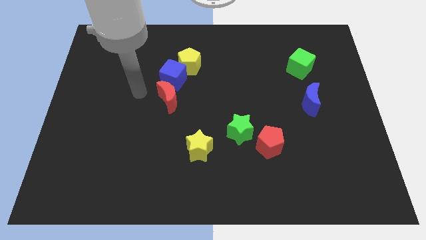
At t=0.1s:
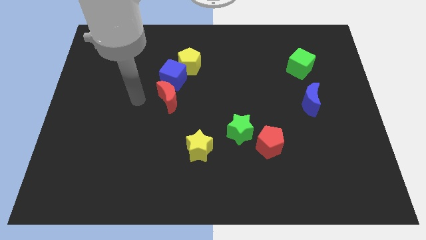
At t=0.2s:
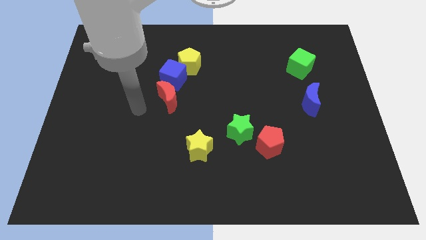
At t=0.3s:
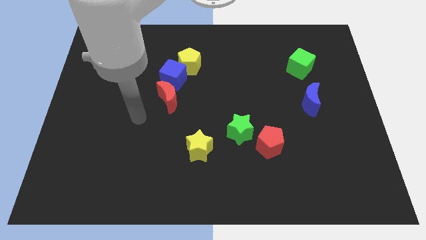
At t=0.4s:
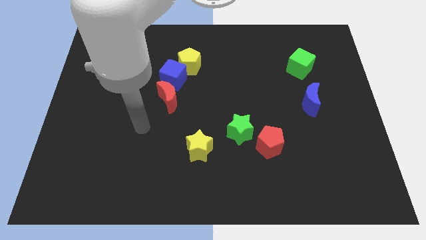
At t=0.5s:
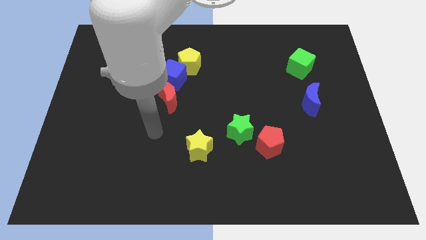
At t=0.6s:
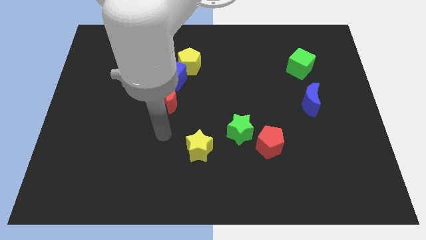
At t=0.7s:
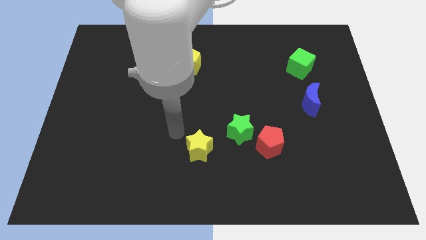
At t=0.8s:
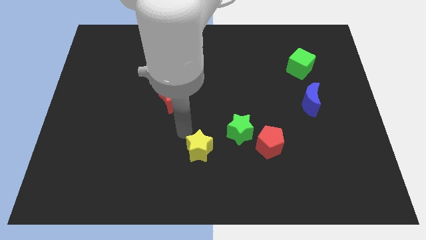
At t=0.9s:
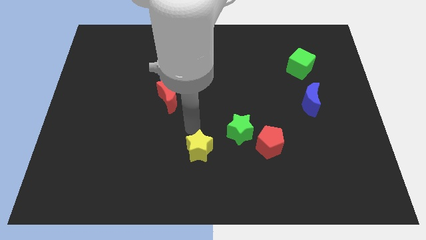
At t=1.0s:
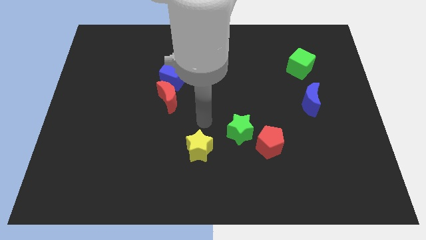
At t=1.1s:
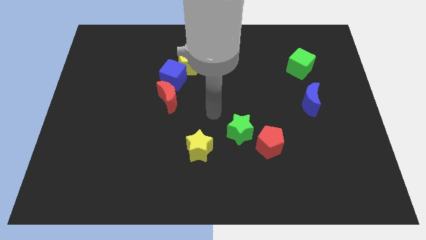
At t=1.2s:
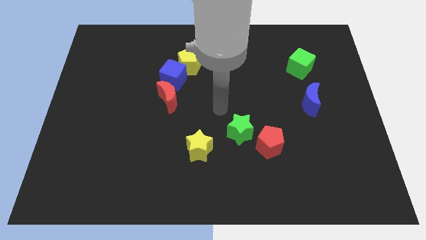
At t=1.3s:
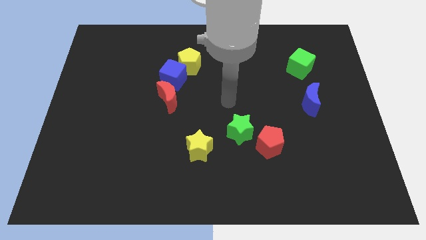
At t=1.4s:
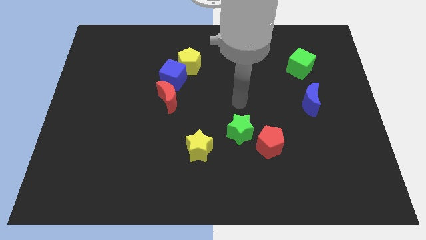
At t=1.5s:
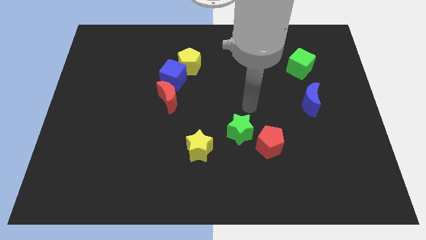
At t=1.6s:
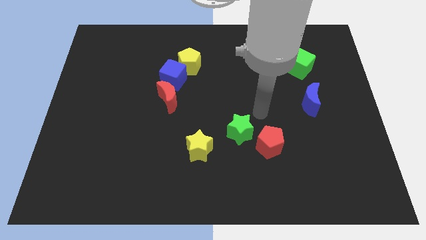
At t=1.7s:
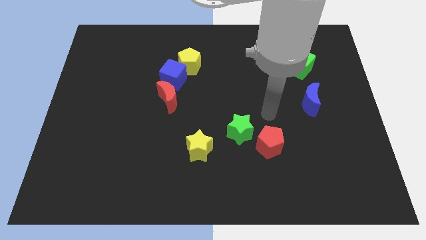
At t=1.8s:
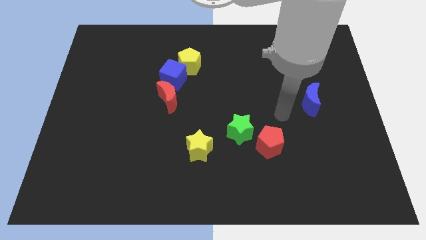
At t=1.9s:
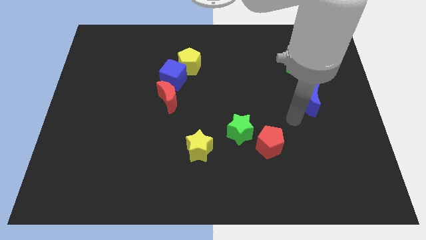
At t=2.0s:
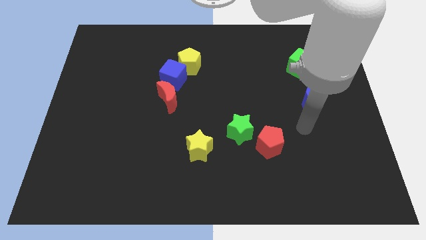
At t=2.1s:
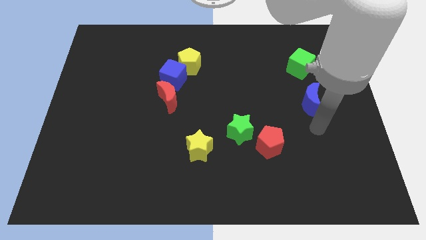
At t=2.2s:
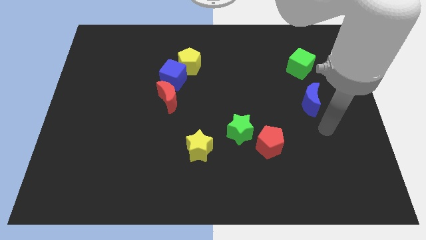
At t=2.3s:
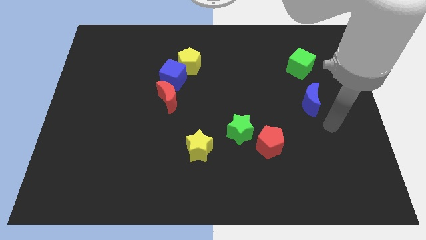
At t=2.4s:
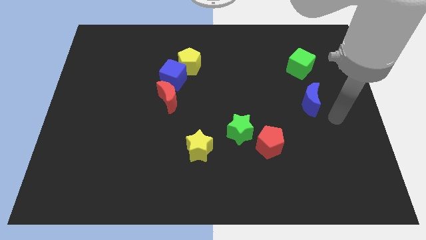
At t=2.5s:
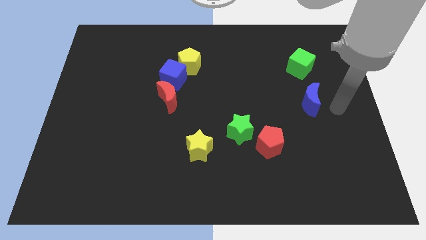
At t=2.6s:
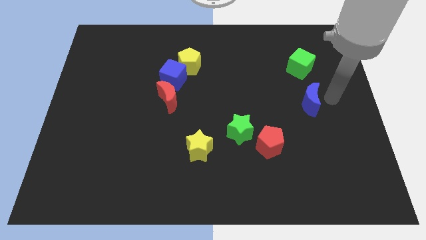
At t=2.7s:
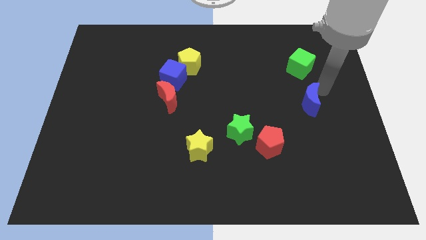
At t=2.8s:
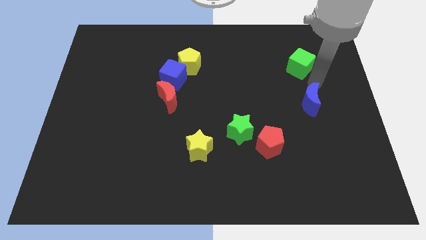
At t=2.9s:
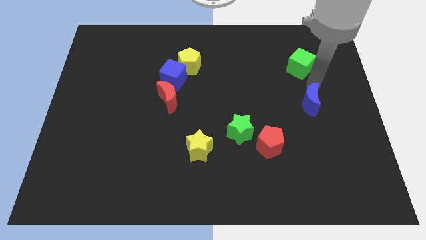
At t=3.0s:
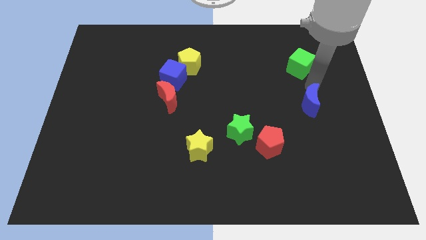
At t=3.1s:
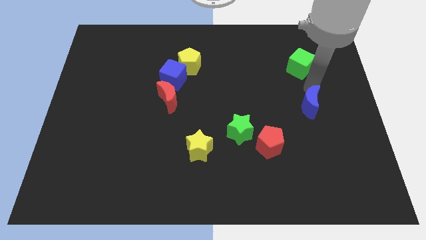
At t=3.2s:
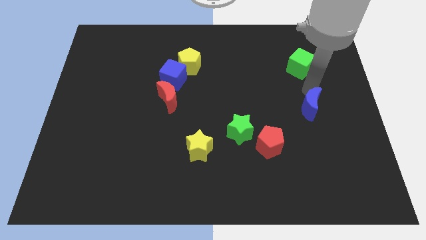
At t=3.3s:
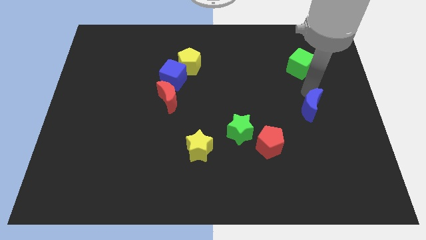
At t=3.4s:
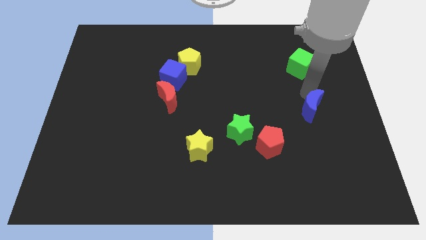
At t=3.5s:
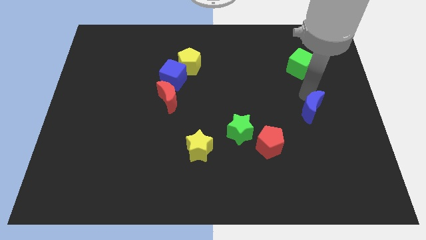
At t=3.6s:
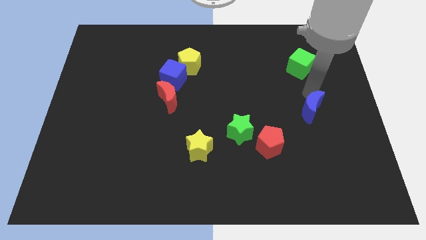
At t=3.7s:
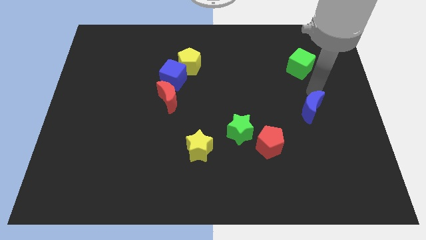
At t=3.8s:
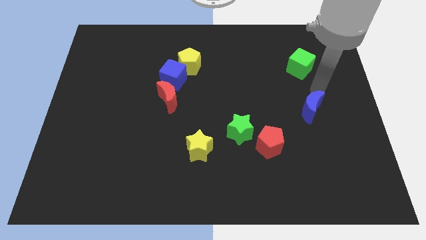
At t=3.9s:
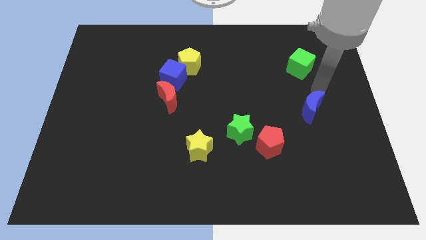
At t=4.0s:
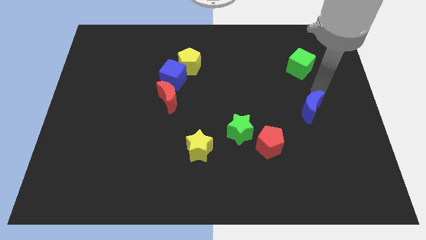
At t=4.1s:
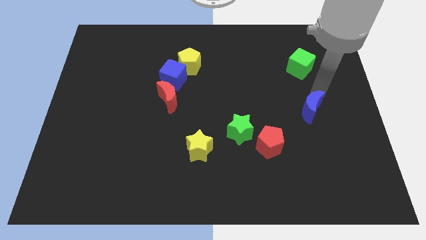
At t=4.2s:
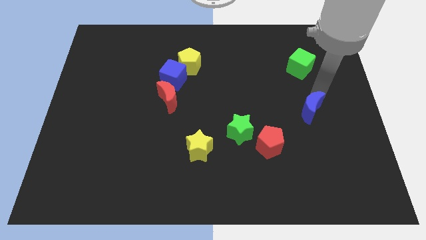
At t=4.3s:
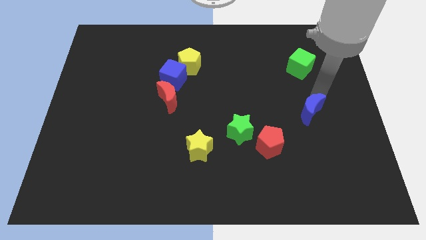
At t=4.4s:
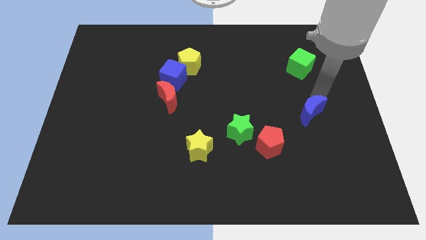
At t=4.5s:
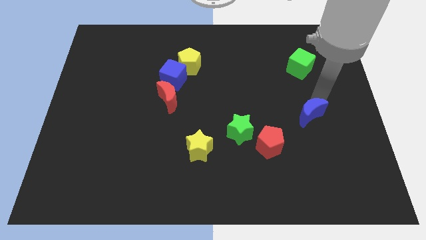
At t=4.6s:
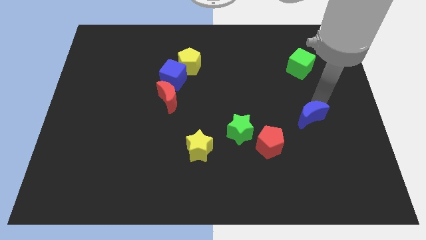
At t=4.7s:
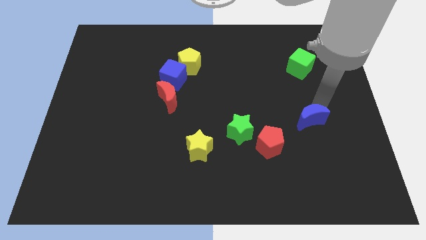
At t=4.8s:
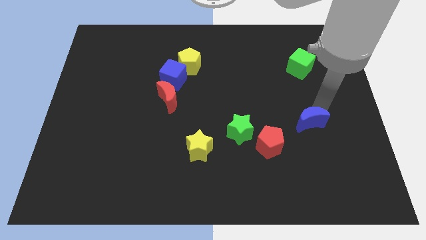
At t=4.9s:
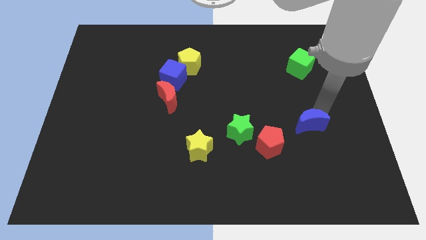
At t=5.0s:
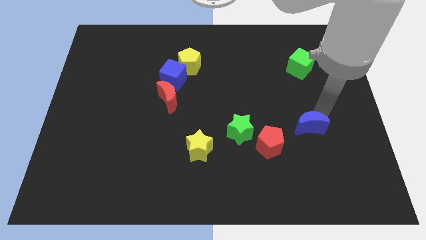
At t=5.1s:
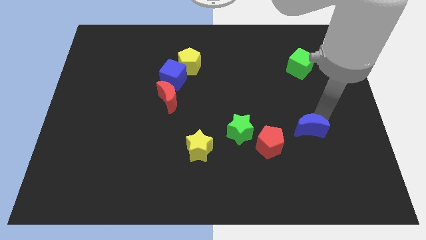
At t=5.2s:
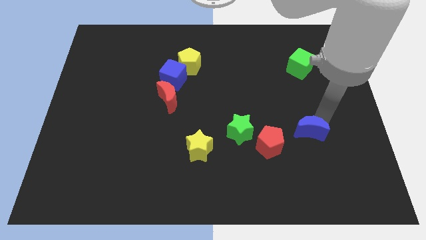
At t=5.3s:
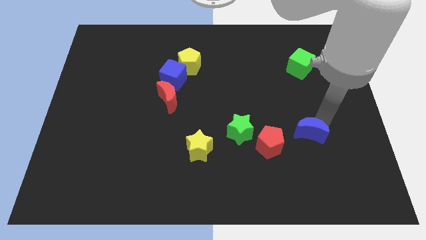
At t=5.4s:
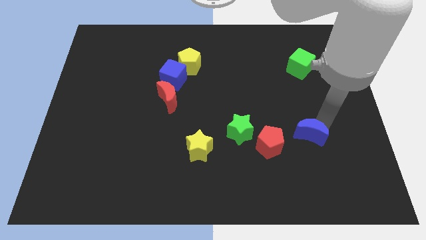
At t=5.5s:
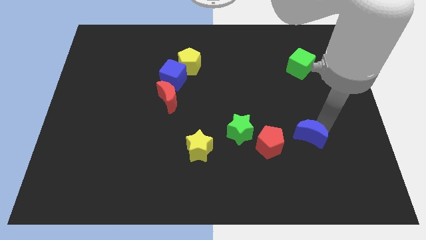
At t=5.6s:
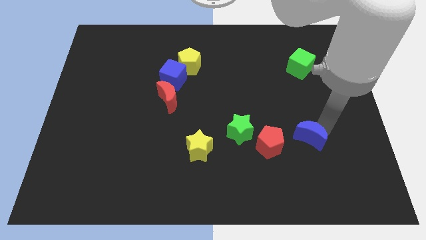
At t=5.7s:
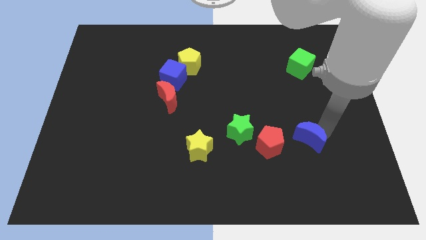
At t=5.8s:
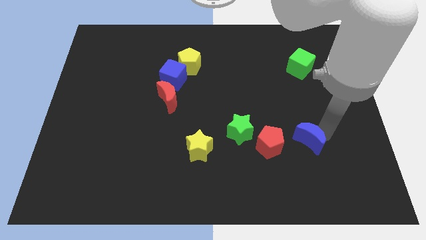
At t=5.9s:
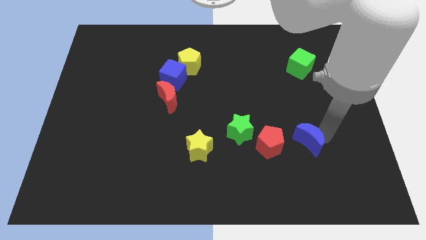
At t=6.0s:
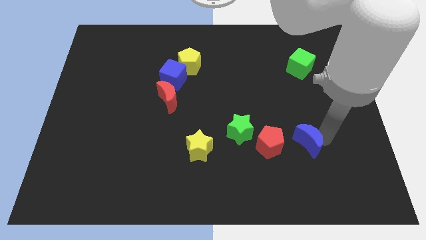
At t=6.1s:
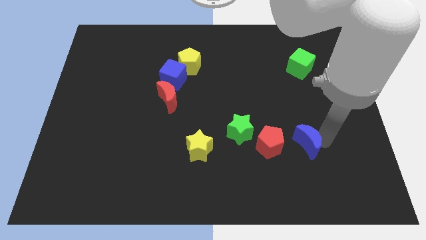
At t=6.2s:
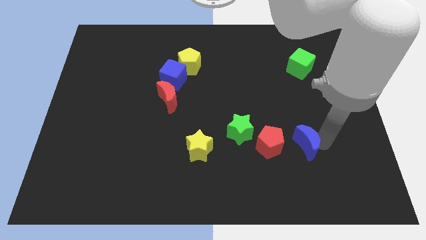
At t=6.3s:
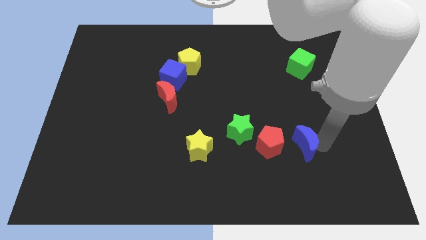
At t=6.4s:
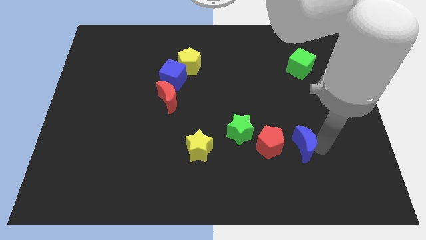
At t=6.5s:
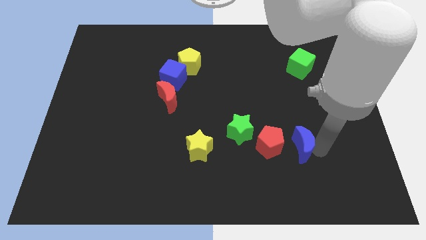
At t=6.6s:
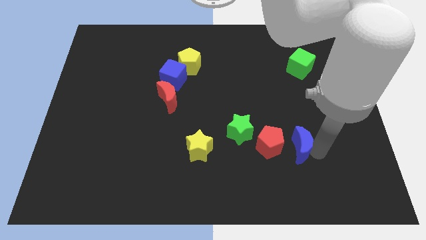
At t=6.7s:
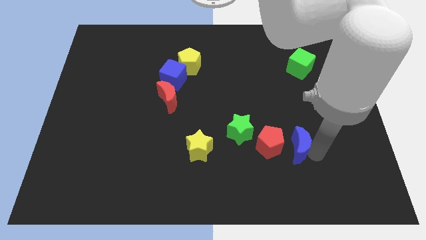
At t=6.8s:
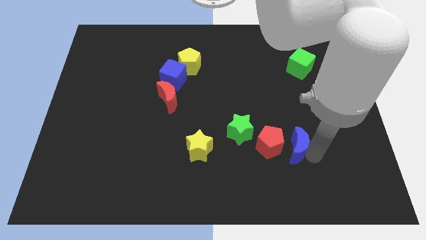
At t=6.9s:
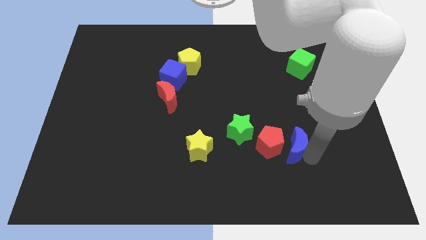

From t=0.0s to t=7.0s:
push the blue moon close to the red pentagon
